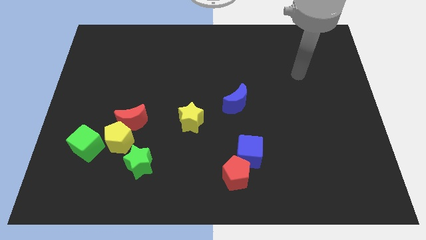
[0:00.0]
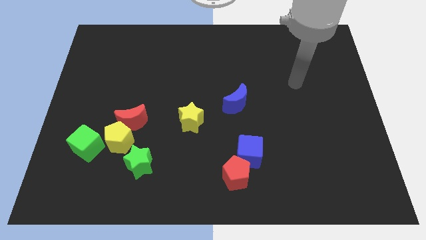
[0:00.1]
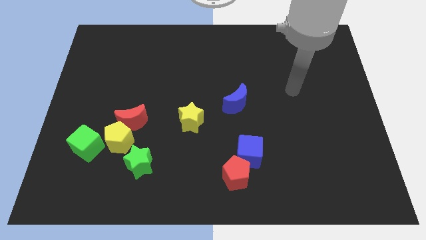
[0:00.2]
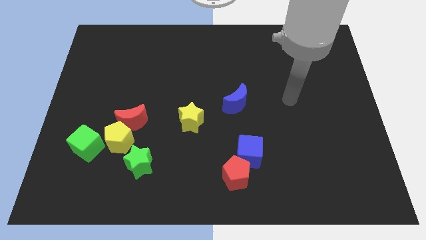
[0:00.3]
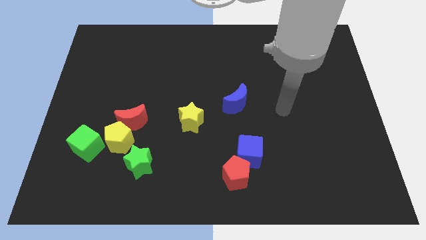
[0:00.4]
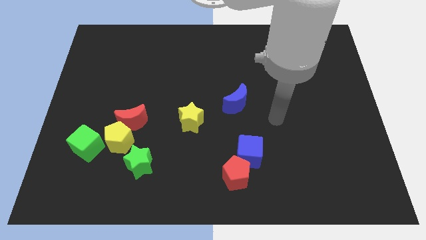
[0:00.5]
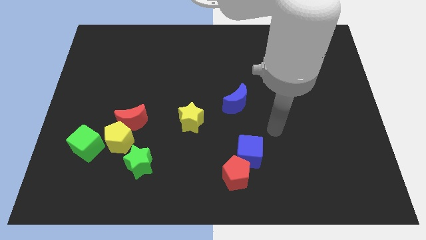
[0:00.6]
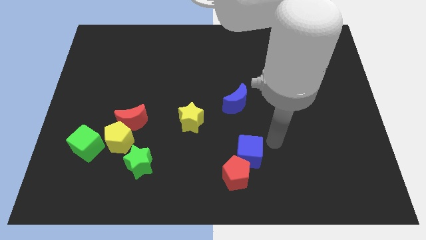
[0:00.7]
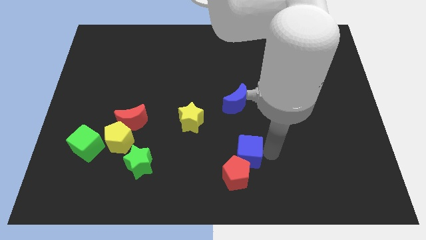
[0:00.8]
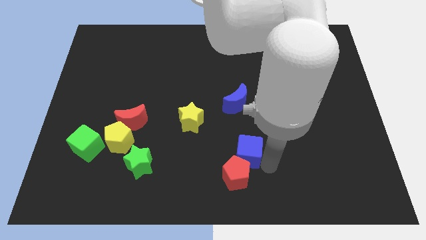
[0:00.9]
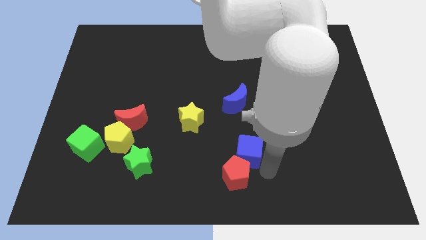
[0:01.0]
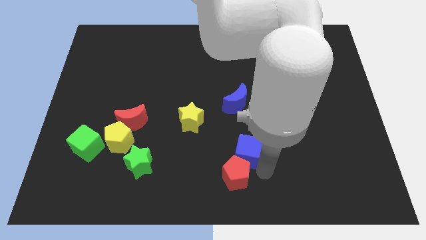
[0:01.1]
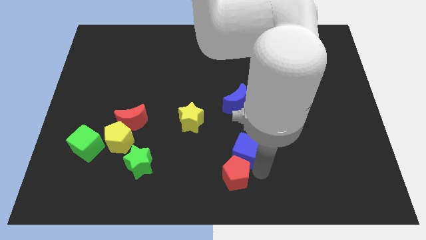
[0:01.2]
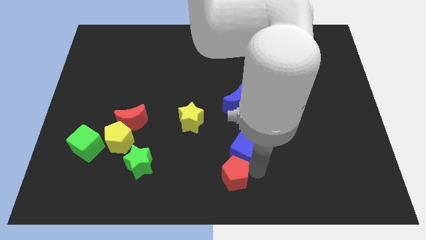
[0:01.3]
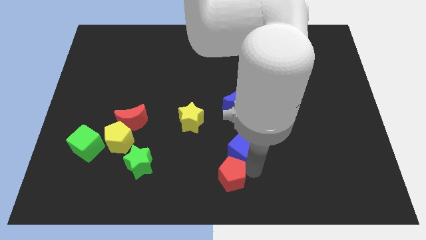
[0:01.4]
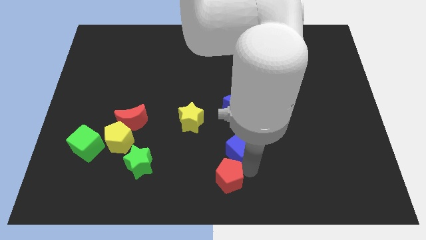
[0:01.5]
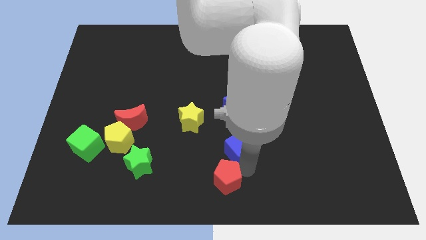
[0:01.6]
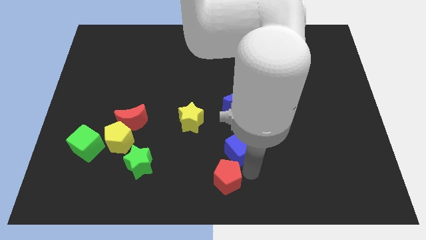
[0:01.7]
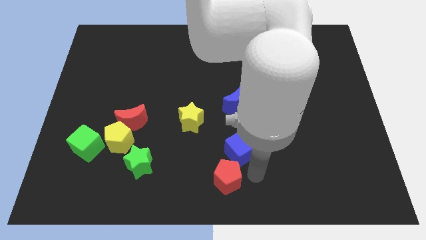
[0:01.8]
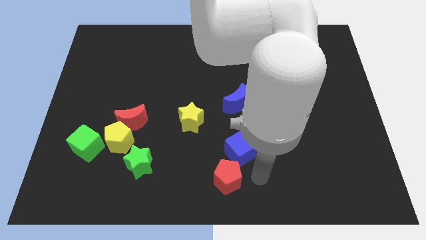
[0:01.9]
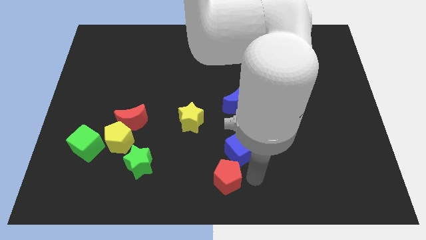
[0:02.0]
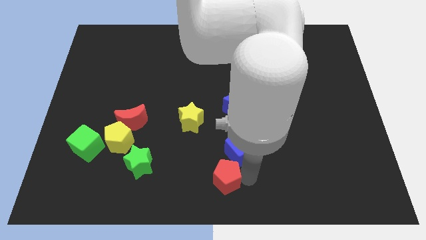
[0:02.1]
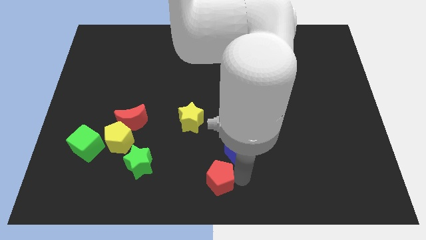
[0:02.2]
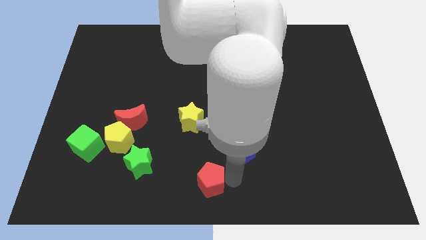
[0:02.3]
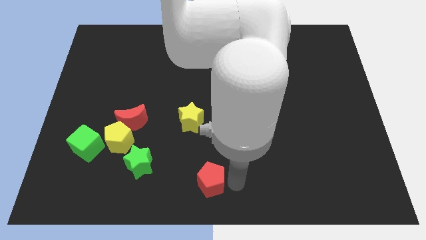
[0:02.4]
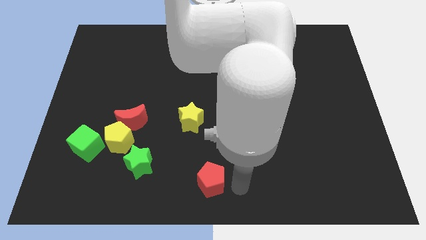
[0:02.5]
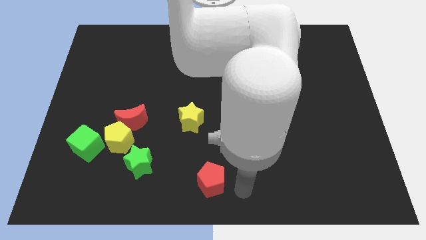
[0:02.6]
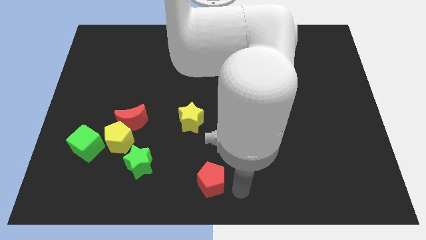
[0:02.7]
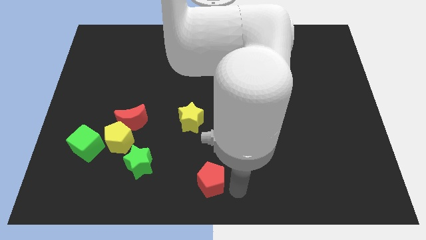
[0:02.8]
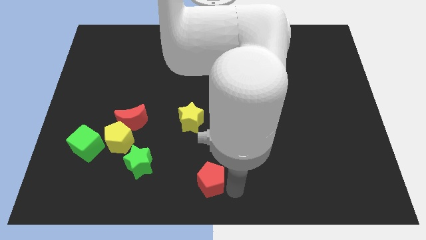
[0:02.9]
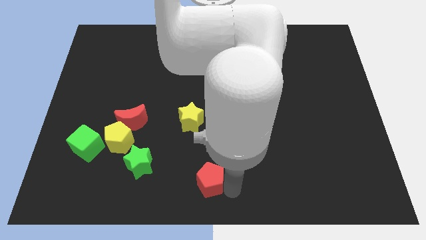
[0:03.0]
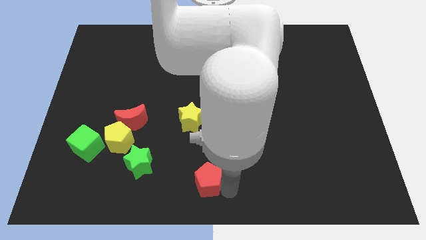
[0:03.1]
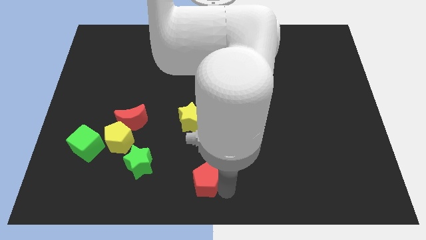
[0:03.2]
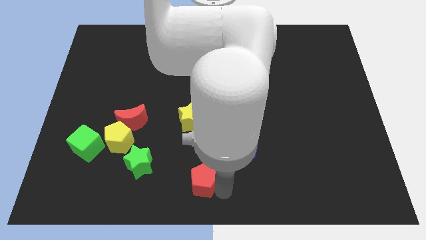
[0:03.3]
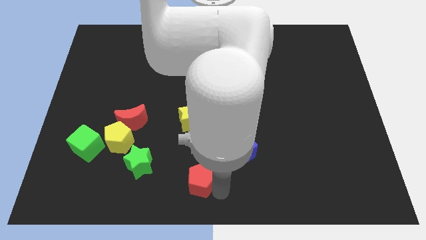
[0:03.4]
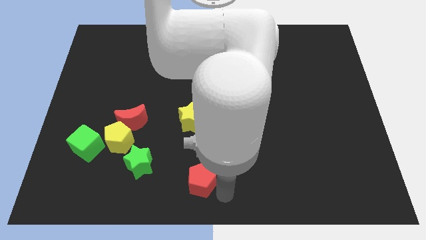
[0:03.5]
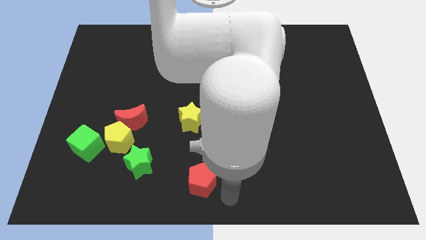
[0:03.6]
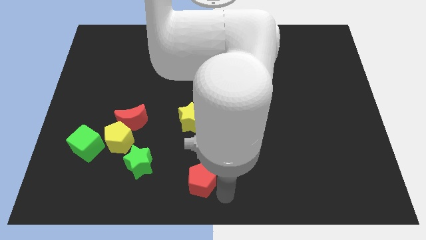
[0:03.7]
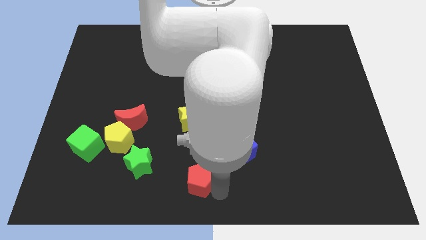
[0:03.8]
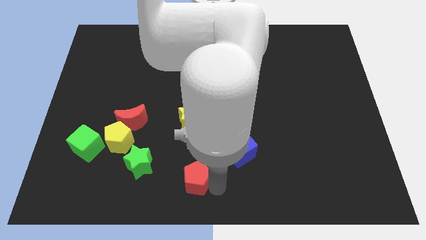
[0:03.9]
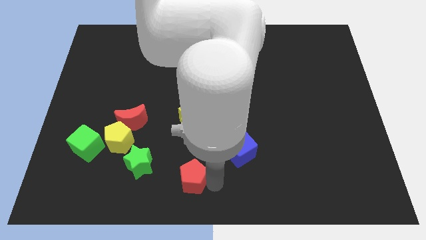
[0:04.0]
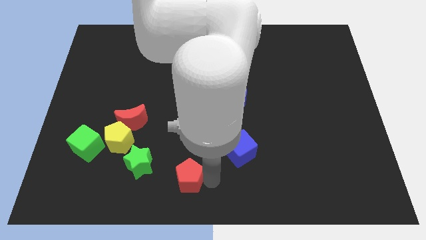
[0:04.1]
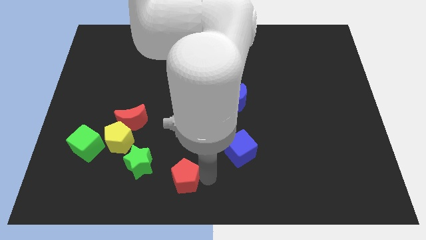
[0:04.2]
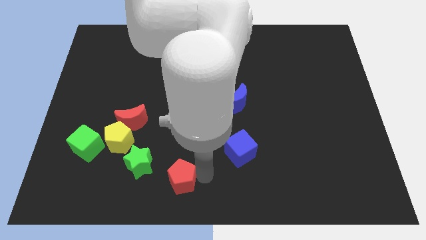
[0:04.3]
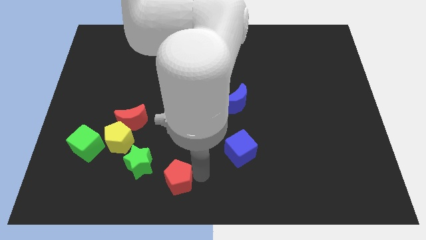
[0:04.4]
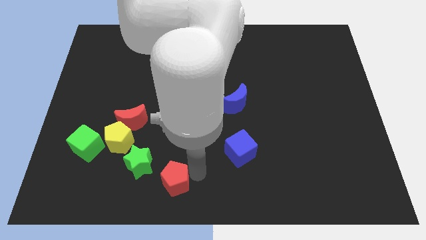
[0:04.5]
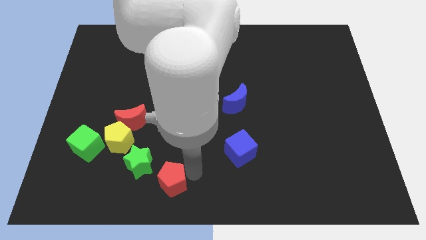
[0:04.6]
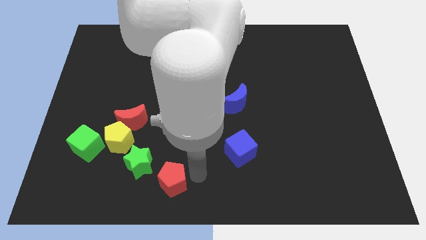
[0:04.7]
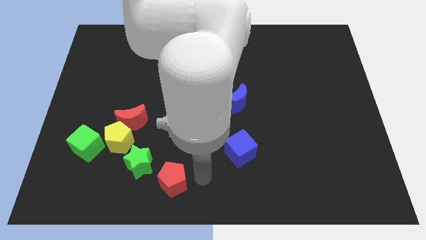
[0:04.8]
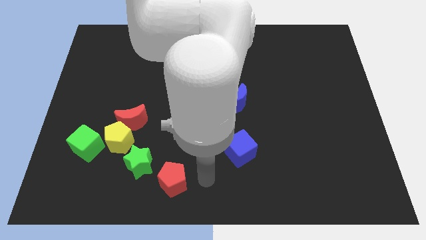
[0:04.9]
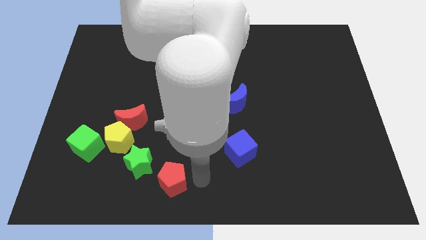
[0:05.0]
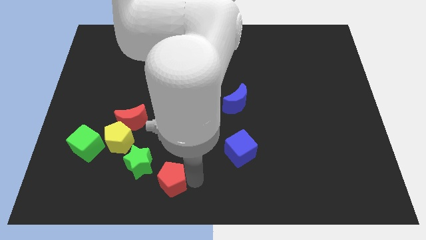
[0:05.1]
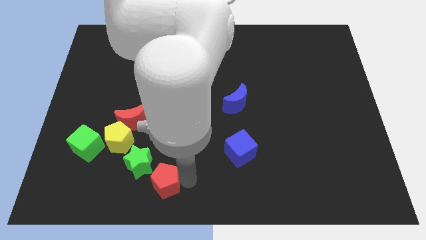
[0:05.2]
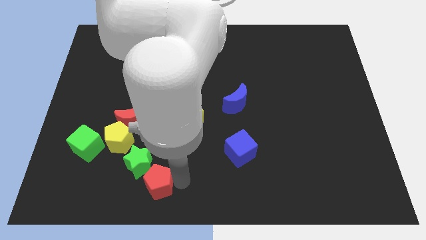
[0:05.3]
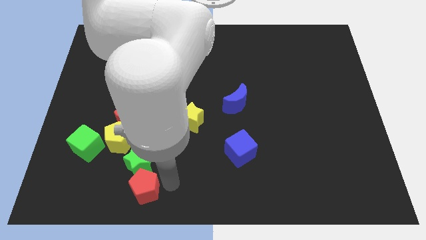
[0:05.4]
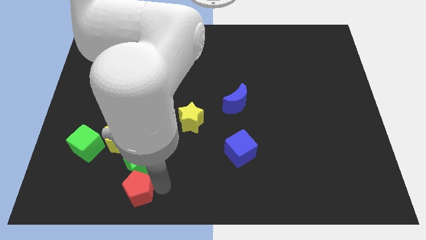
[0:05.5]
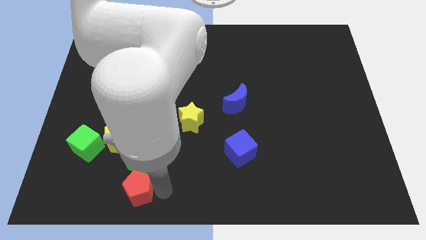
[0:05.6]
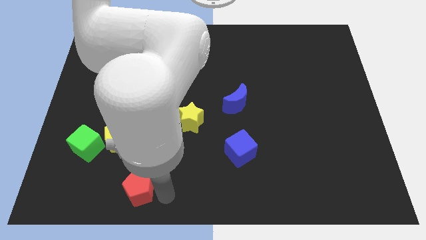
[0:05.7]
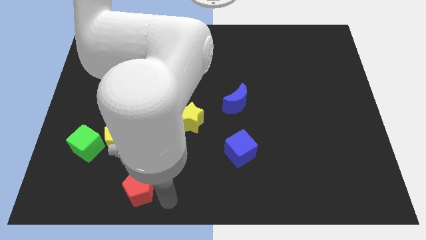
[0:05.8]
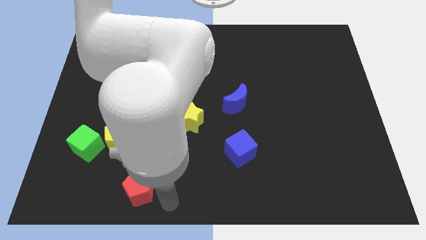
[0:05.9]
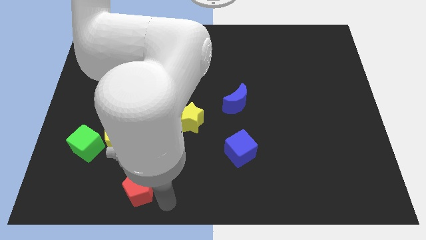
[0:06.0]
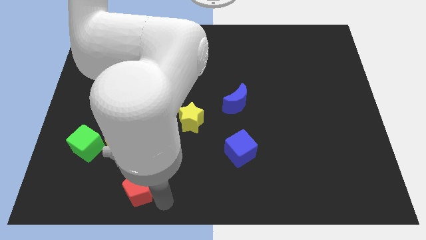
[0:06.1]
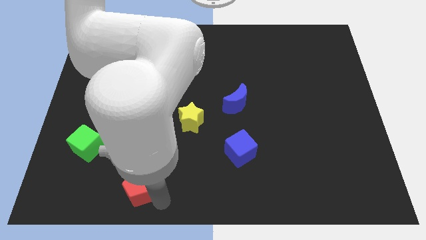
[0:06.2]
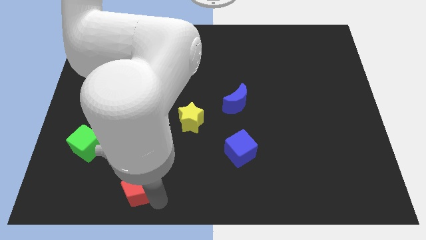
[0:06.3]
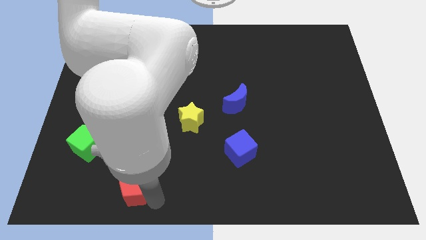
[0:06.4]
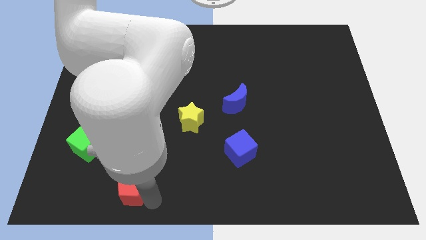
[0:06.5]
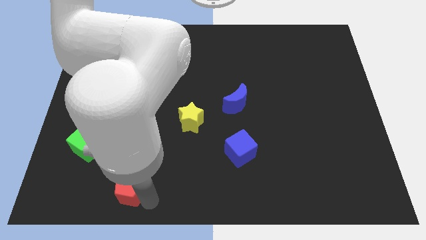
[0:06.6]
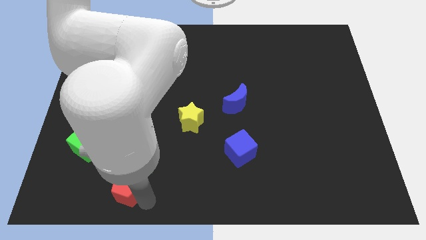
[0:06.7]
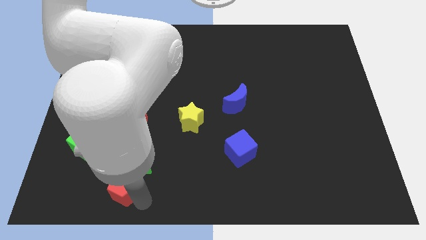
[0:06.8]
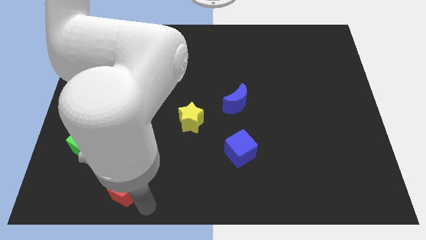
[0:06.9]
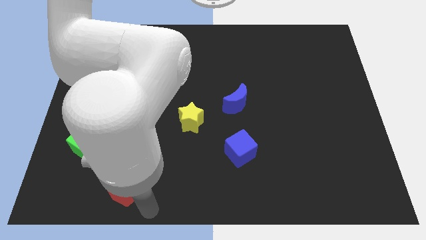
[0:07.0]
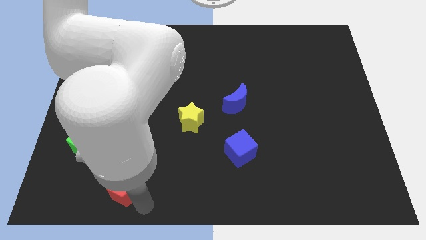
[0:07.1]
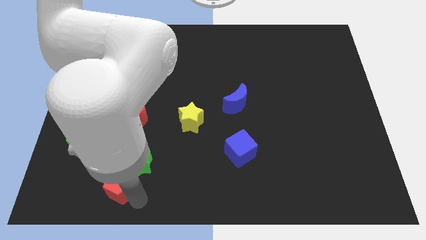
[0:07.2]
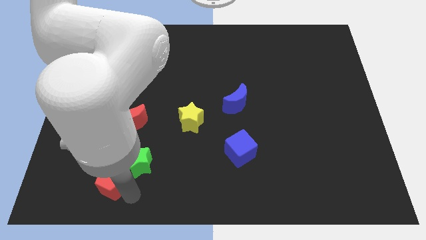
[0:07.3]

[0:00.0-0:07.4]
put the red pentagon to the left of the green star
